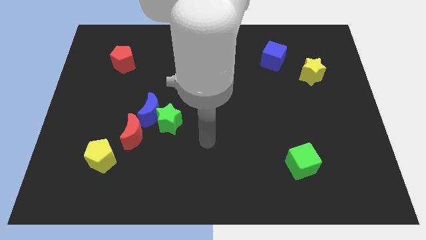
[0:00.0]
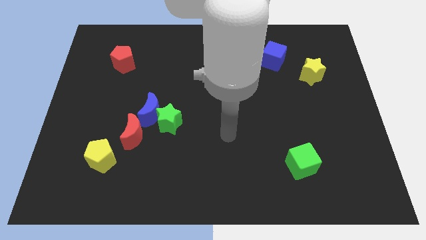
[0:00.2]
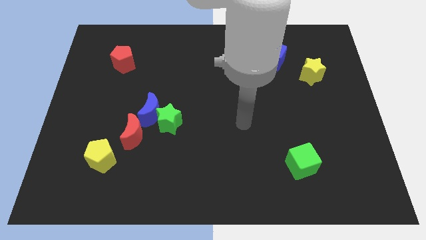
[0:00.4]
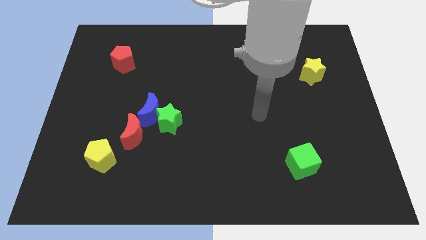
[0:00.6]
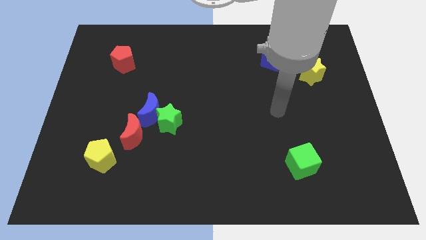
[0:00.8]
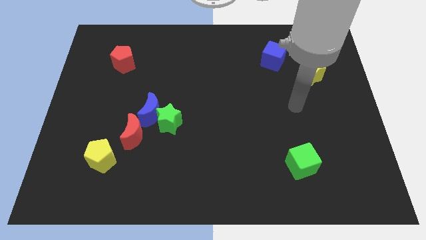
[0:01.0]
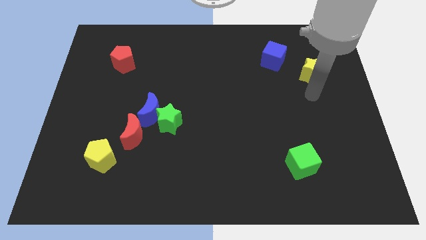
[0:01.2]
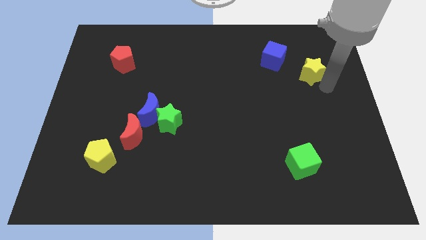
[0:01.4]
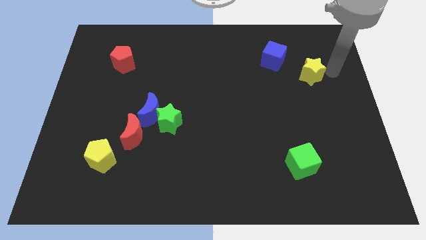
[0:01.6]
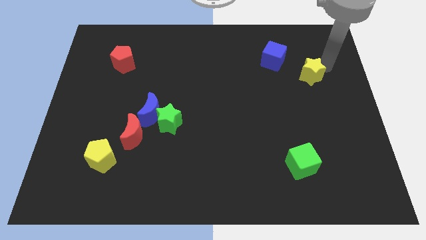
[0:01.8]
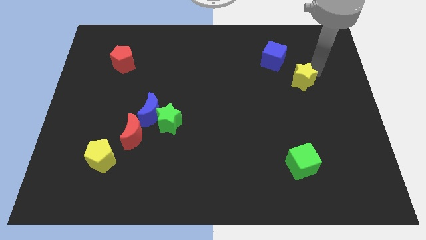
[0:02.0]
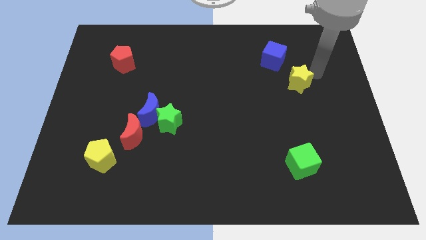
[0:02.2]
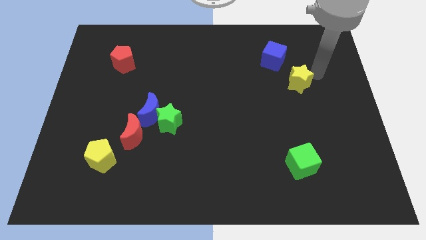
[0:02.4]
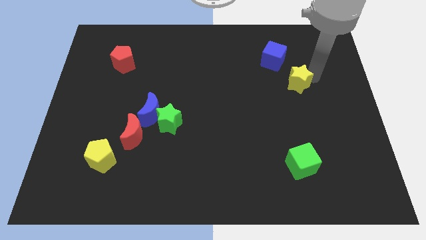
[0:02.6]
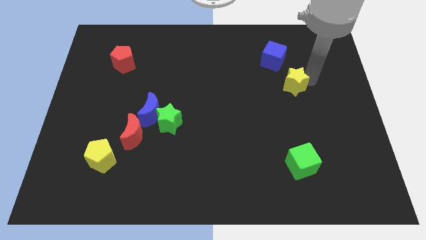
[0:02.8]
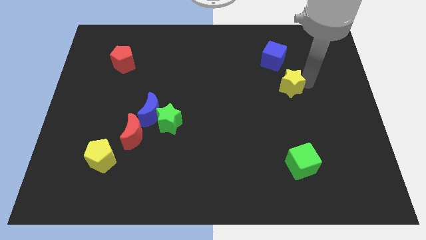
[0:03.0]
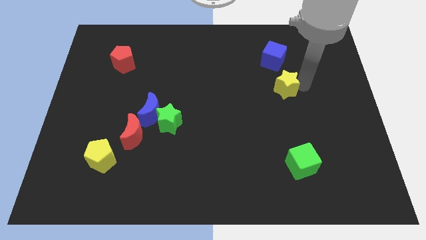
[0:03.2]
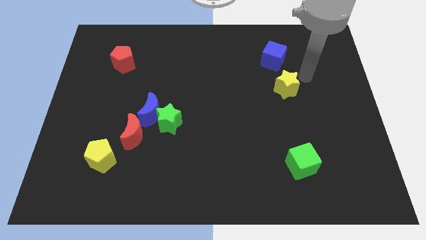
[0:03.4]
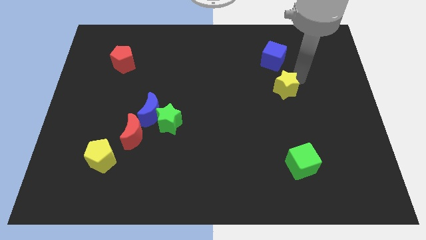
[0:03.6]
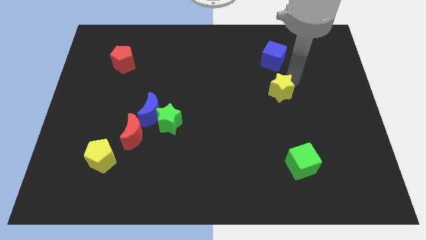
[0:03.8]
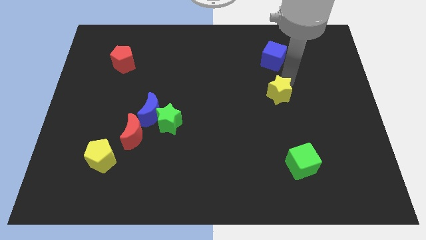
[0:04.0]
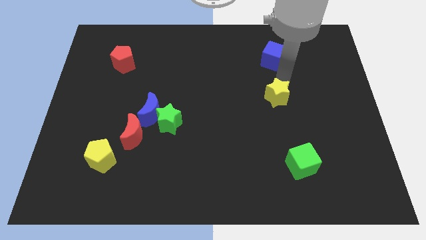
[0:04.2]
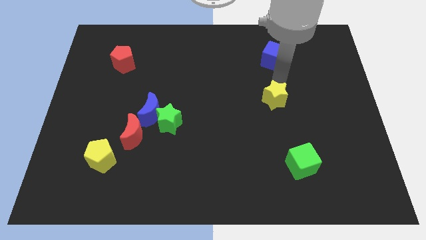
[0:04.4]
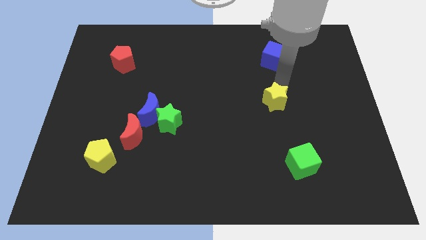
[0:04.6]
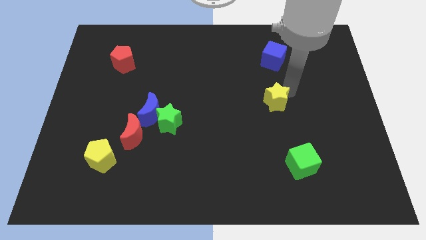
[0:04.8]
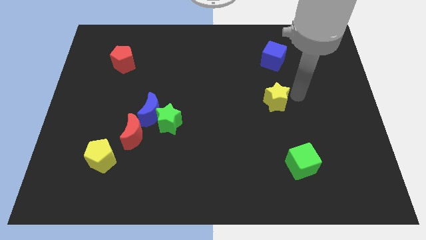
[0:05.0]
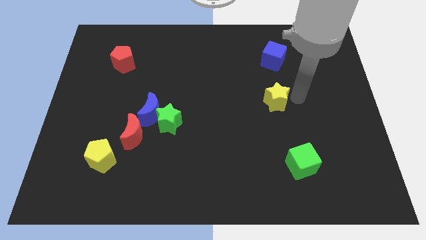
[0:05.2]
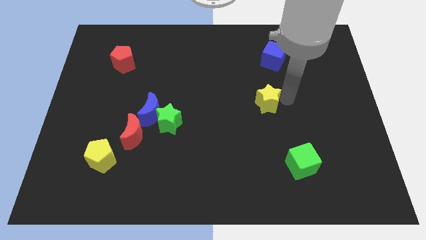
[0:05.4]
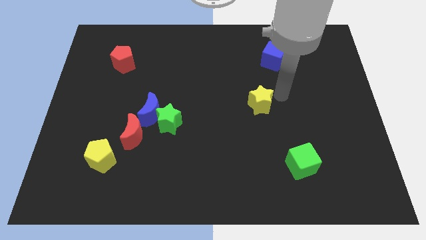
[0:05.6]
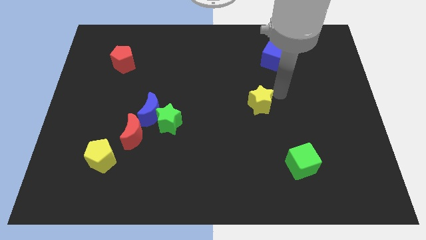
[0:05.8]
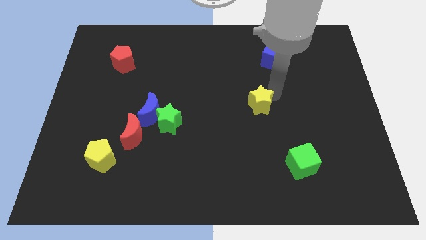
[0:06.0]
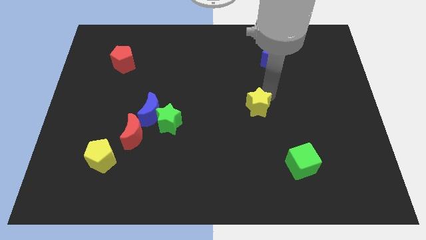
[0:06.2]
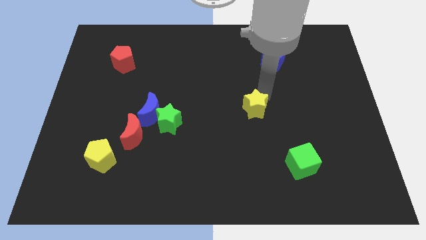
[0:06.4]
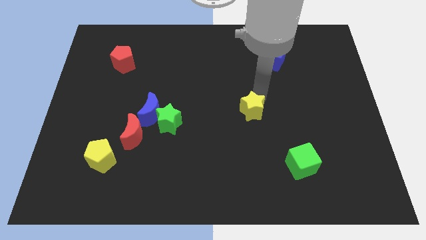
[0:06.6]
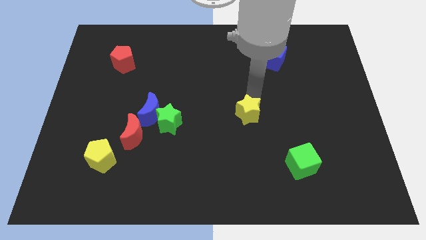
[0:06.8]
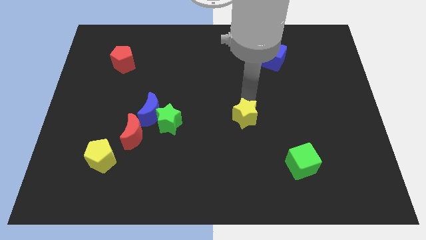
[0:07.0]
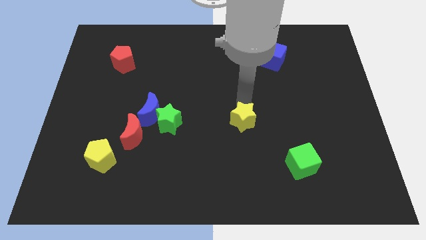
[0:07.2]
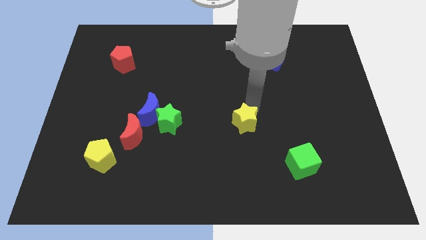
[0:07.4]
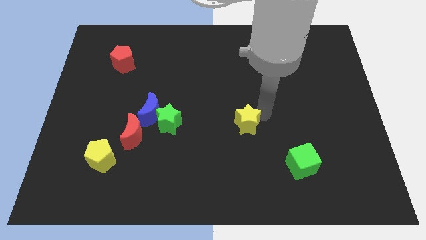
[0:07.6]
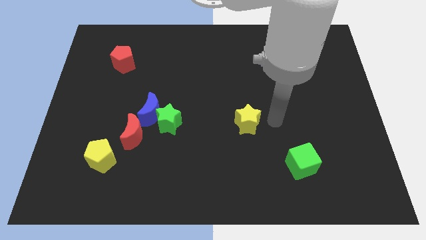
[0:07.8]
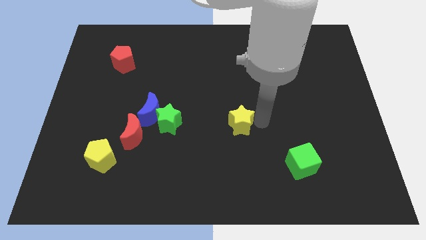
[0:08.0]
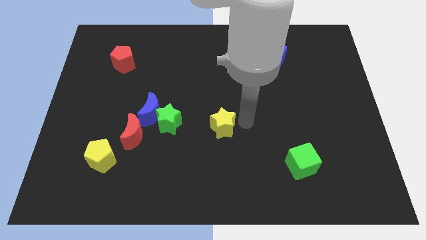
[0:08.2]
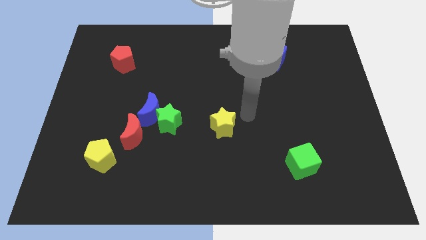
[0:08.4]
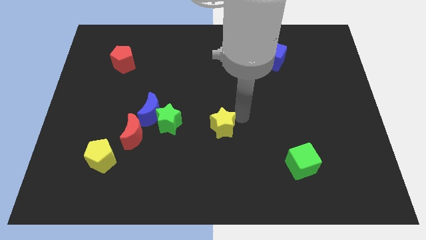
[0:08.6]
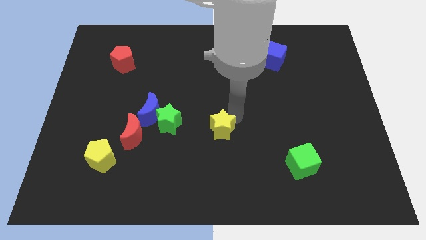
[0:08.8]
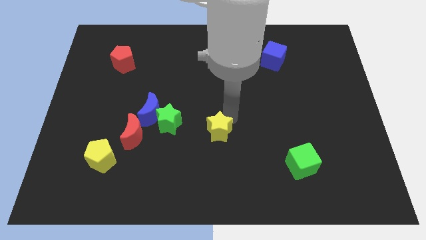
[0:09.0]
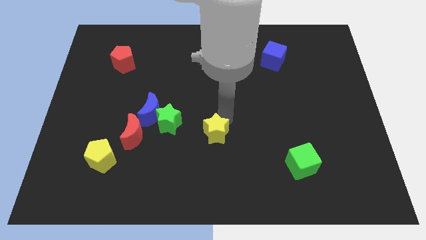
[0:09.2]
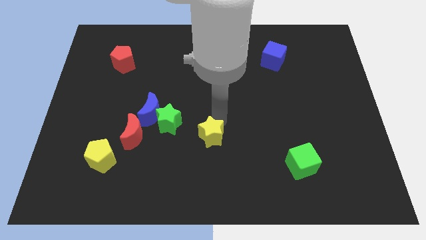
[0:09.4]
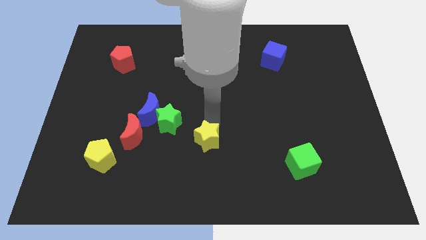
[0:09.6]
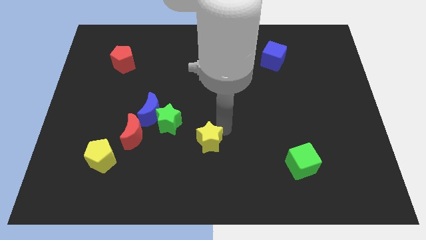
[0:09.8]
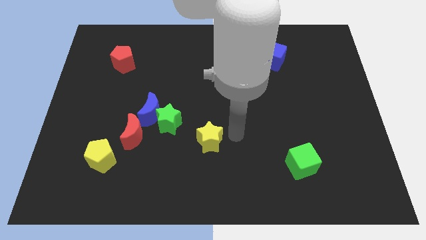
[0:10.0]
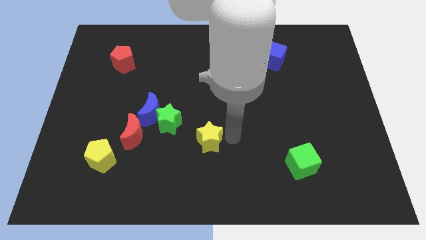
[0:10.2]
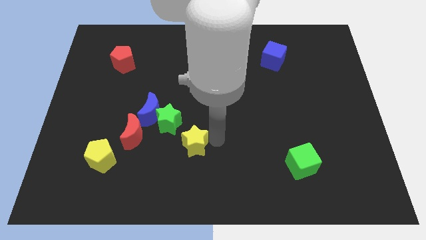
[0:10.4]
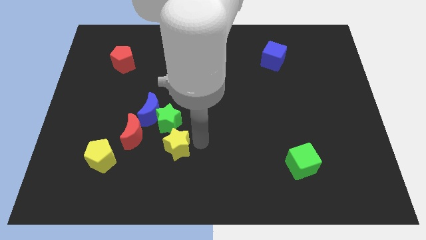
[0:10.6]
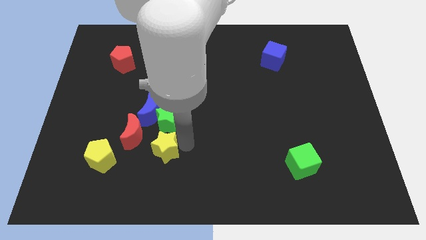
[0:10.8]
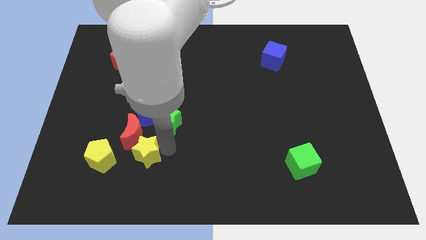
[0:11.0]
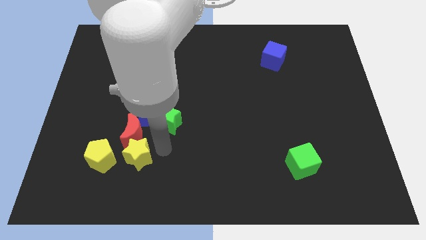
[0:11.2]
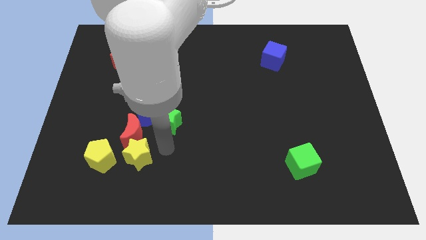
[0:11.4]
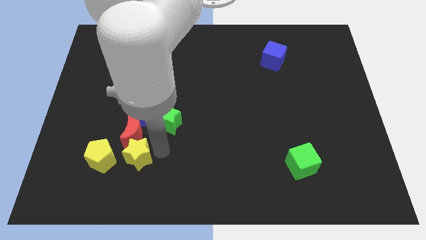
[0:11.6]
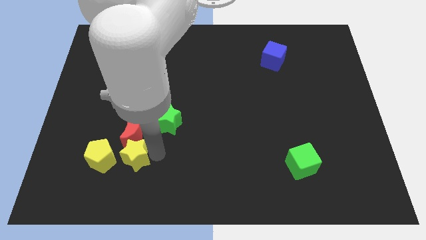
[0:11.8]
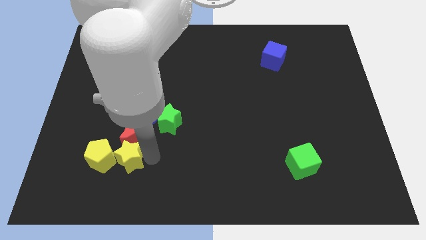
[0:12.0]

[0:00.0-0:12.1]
put the yellow star close to the yellow pentagon
